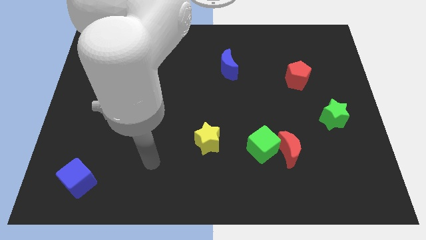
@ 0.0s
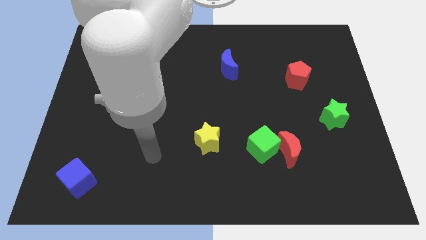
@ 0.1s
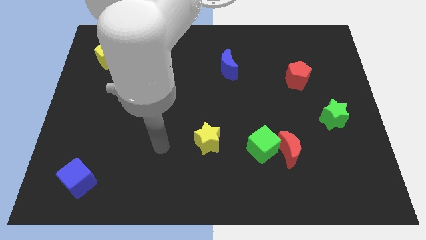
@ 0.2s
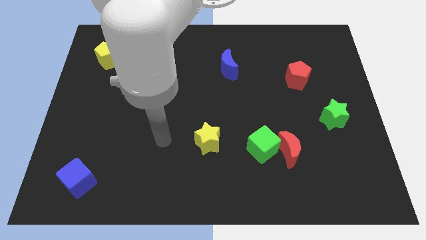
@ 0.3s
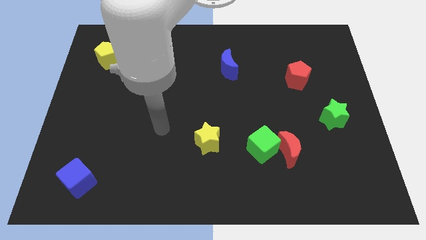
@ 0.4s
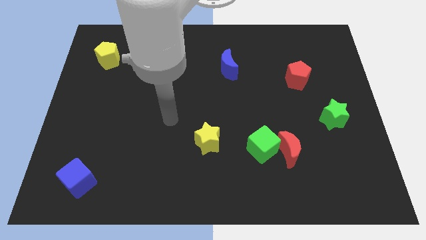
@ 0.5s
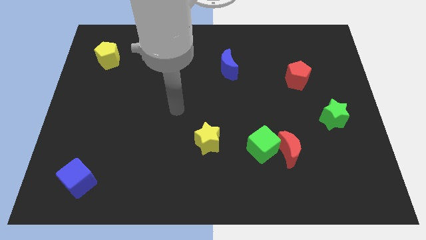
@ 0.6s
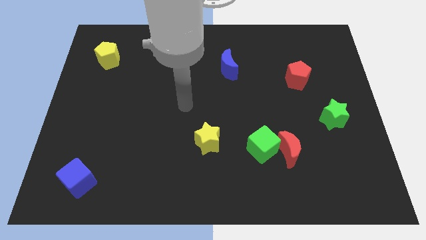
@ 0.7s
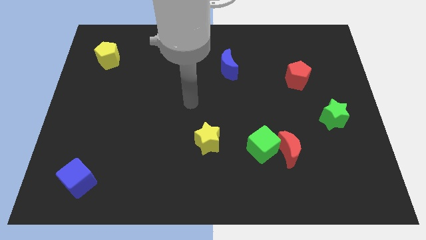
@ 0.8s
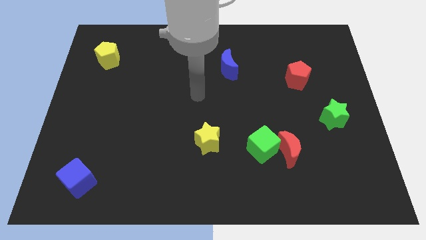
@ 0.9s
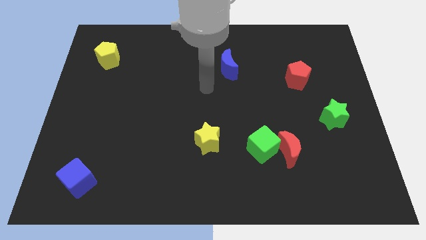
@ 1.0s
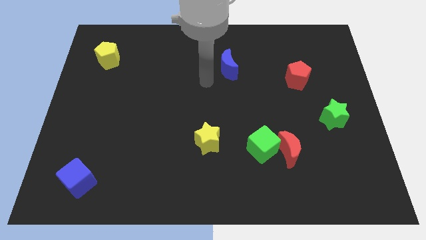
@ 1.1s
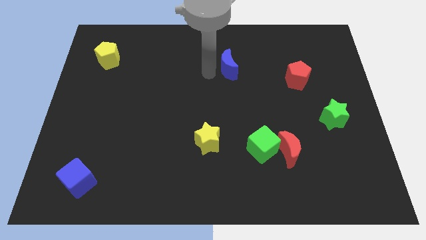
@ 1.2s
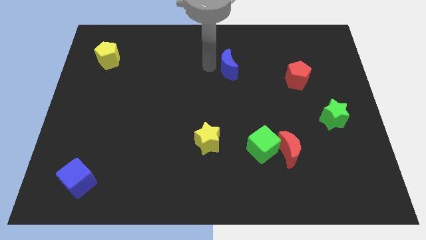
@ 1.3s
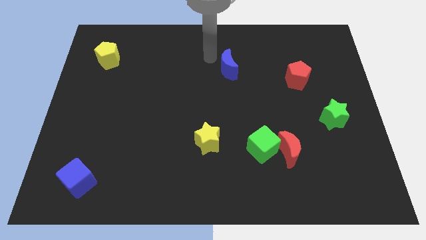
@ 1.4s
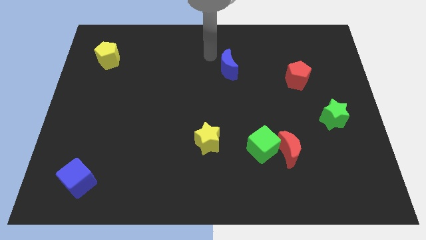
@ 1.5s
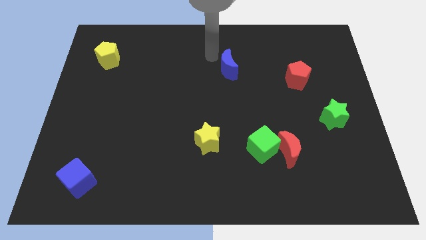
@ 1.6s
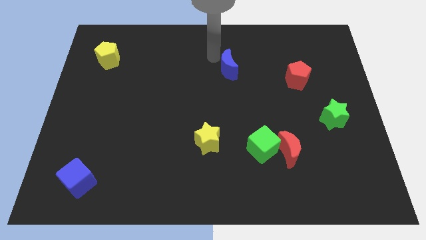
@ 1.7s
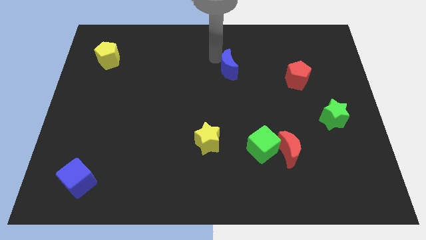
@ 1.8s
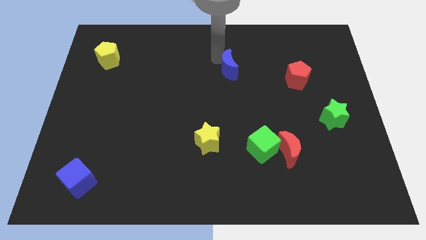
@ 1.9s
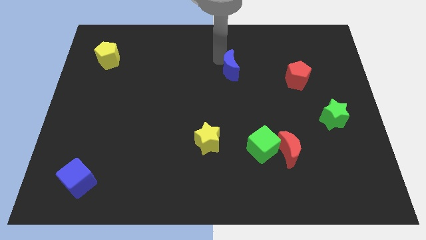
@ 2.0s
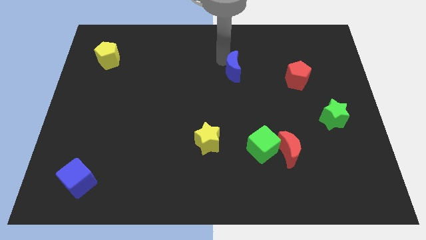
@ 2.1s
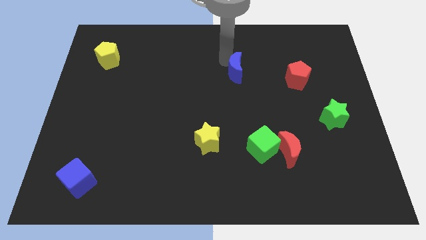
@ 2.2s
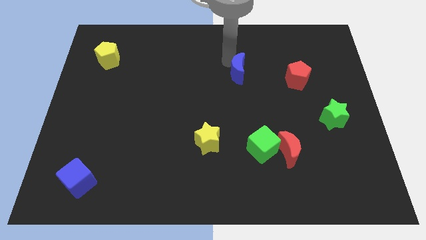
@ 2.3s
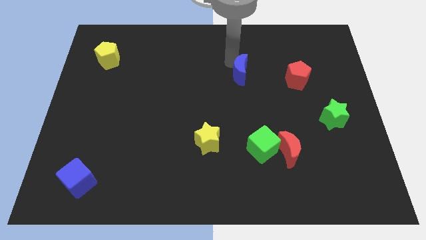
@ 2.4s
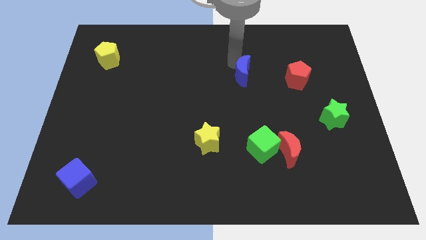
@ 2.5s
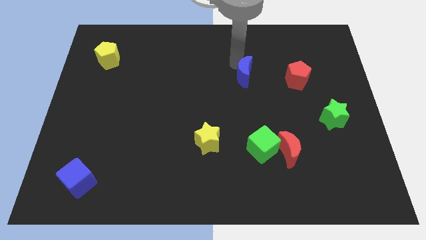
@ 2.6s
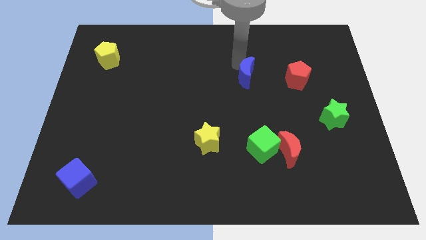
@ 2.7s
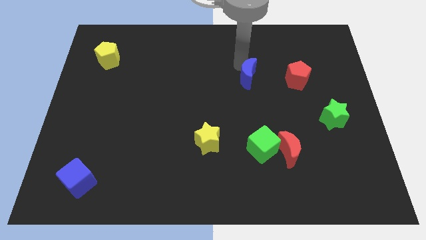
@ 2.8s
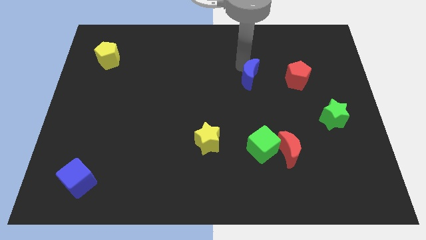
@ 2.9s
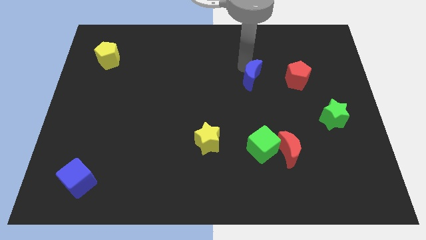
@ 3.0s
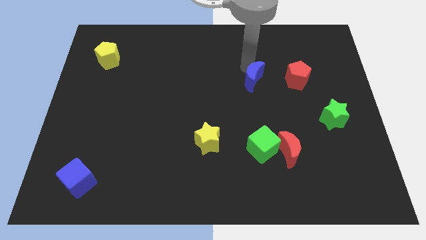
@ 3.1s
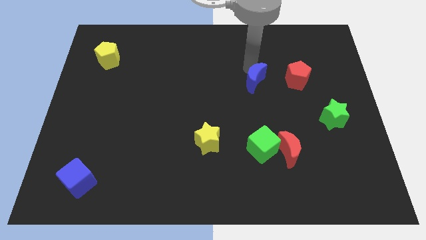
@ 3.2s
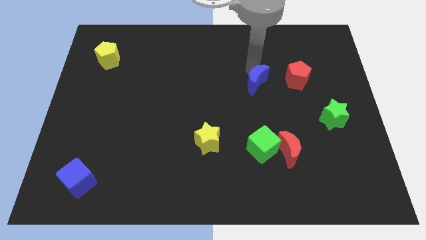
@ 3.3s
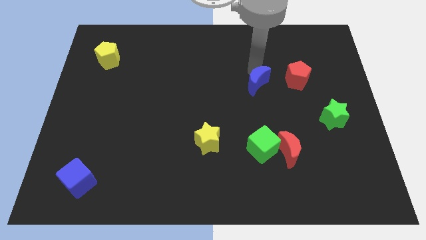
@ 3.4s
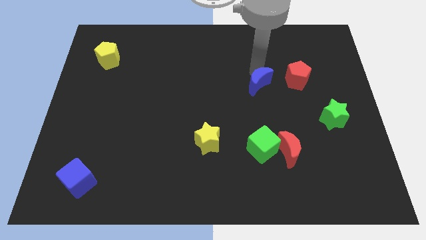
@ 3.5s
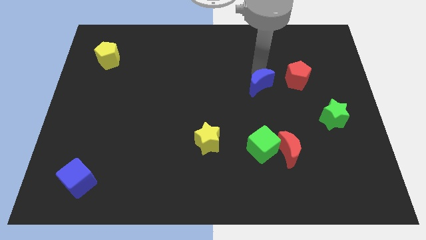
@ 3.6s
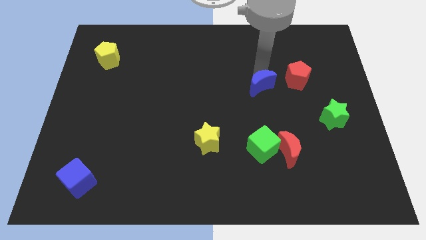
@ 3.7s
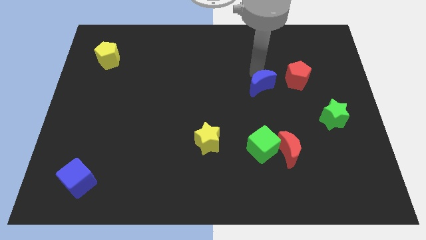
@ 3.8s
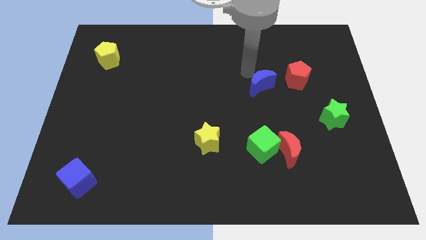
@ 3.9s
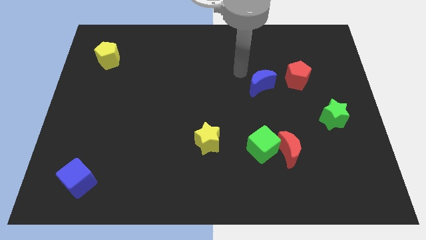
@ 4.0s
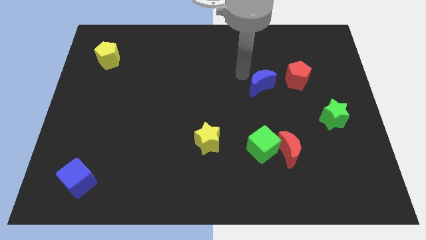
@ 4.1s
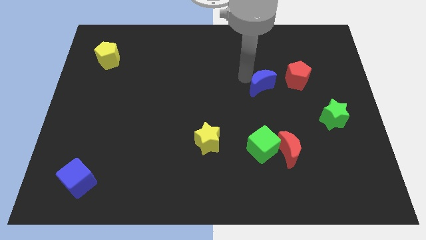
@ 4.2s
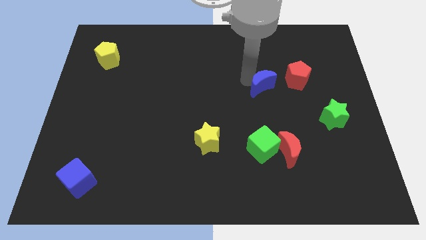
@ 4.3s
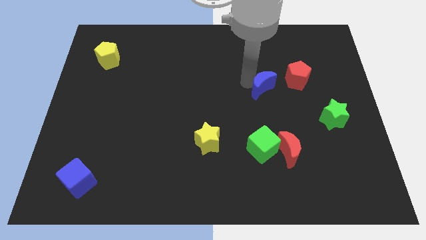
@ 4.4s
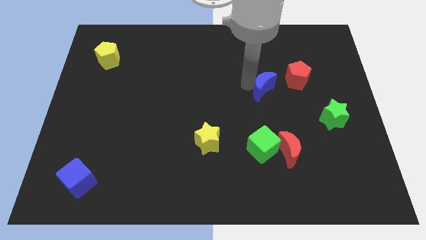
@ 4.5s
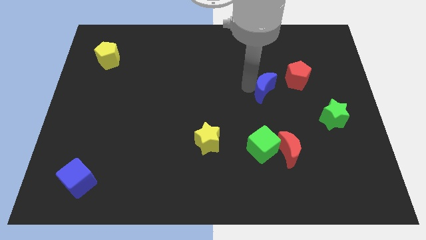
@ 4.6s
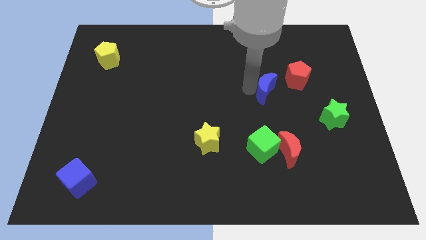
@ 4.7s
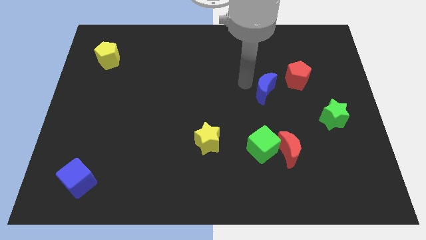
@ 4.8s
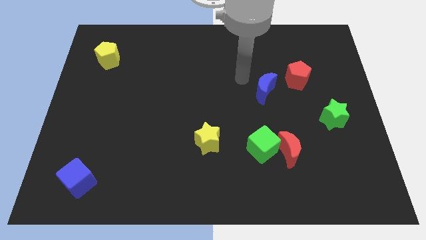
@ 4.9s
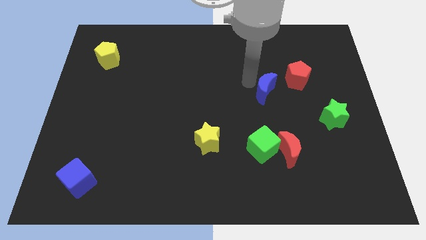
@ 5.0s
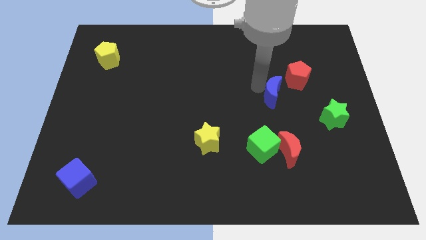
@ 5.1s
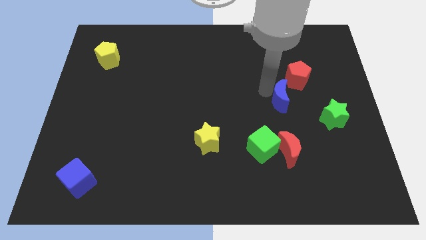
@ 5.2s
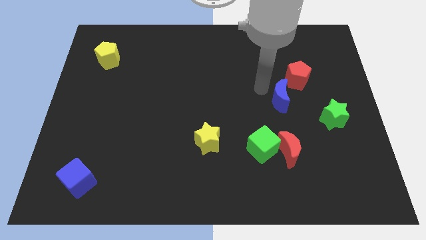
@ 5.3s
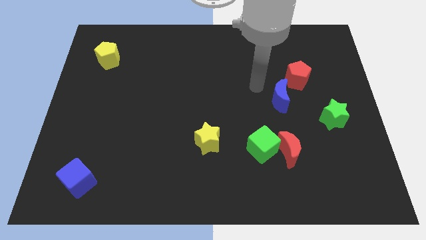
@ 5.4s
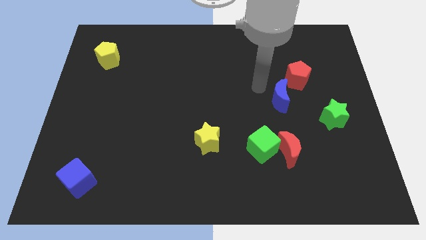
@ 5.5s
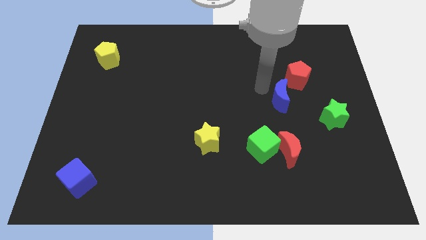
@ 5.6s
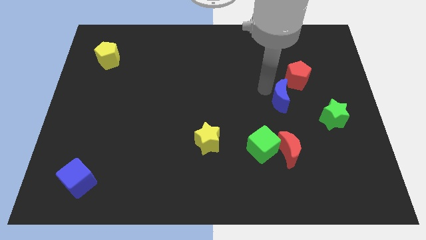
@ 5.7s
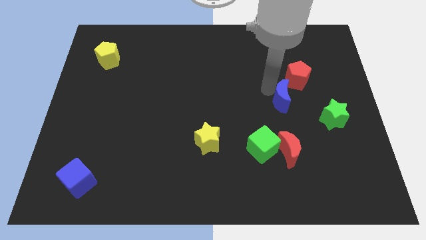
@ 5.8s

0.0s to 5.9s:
push the blue moon to the bottom of the red pentagon

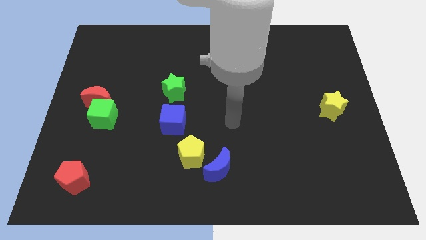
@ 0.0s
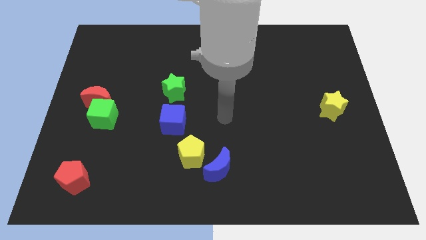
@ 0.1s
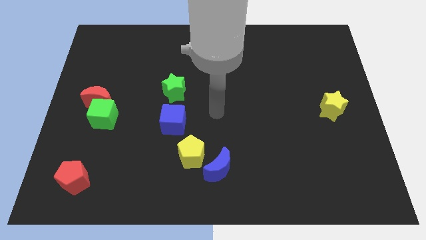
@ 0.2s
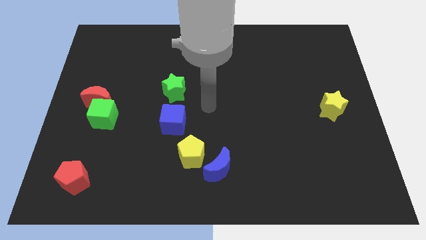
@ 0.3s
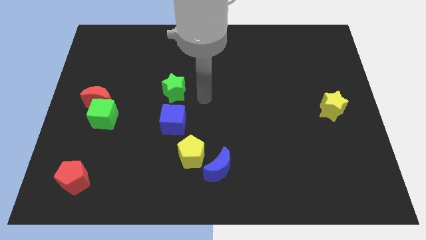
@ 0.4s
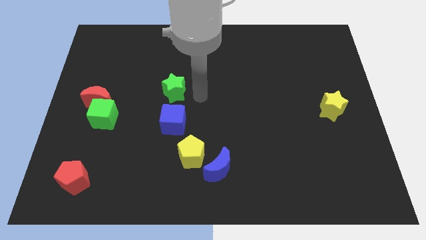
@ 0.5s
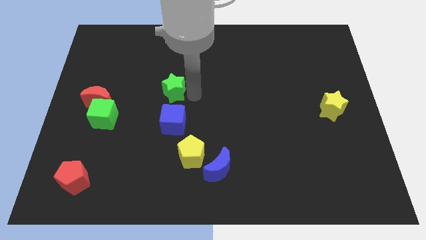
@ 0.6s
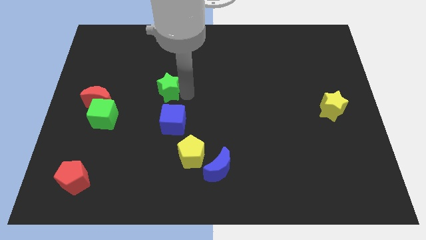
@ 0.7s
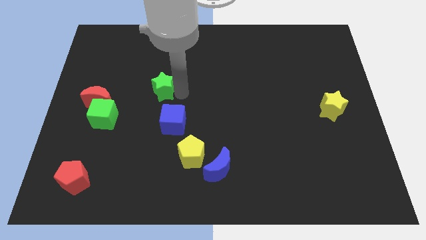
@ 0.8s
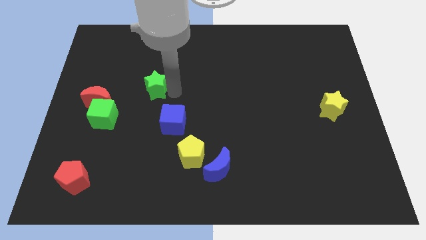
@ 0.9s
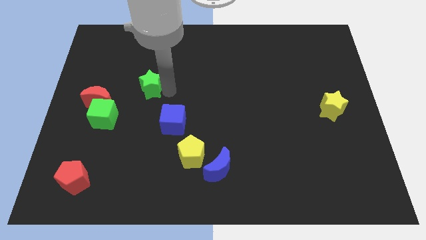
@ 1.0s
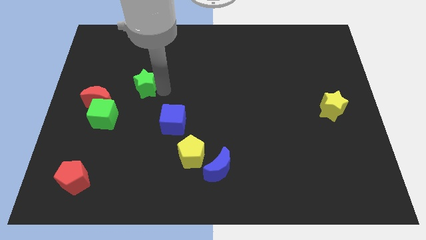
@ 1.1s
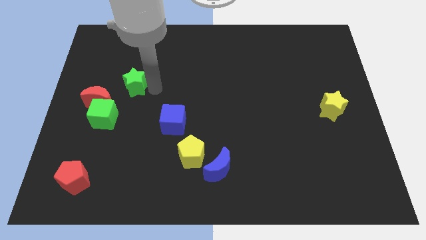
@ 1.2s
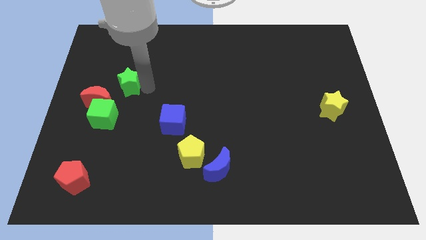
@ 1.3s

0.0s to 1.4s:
put the green star to the top of the green cube
